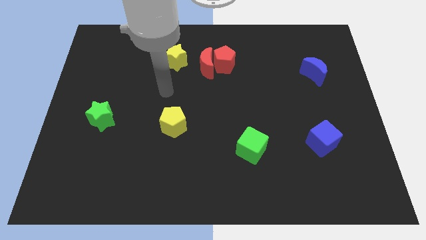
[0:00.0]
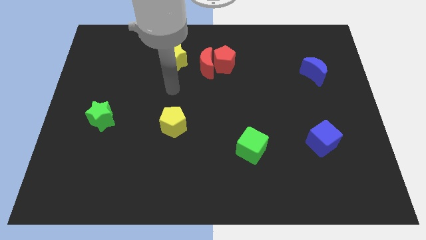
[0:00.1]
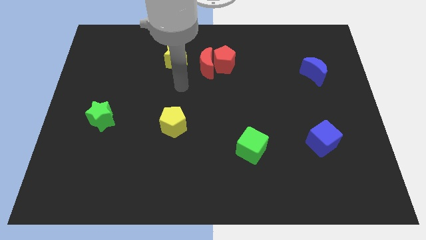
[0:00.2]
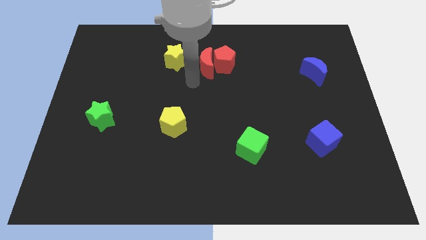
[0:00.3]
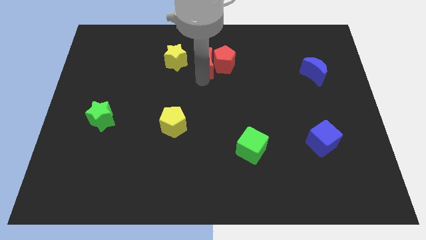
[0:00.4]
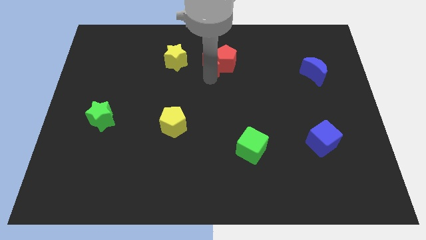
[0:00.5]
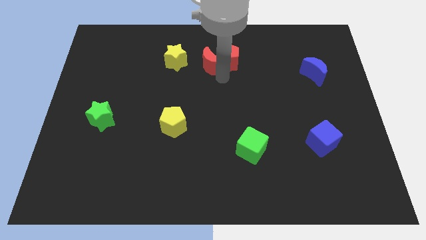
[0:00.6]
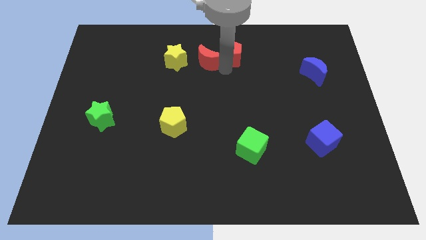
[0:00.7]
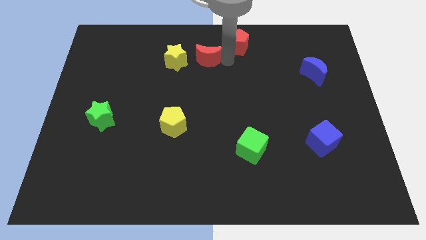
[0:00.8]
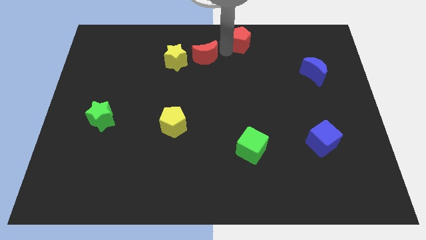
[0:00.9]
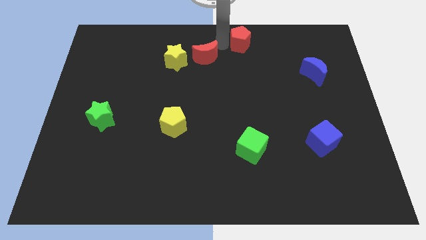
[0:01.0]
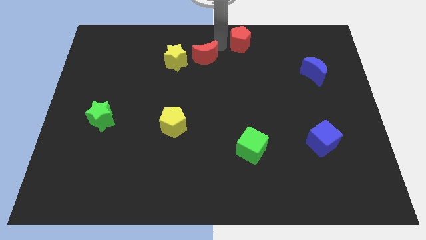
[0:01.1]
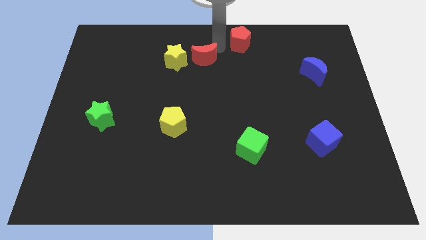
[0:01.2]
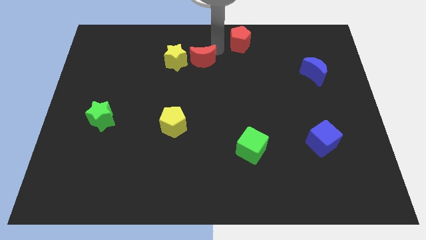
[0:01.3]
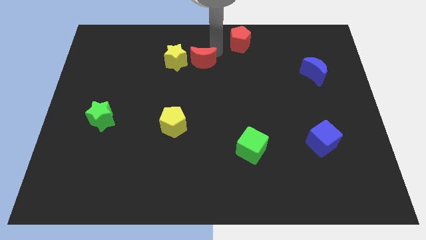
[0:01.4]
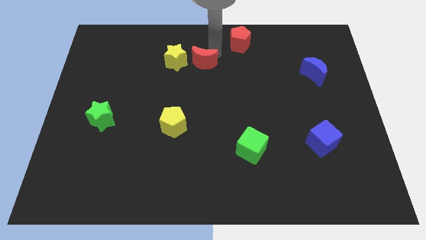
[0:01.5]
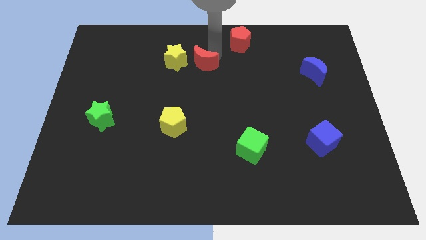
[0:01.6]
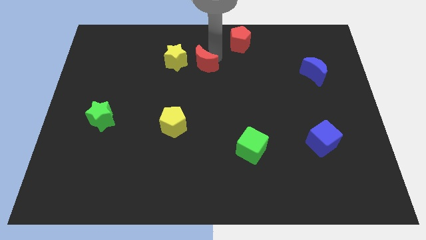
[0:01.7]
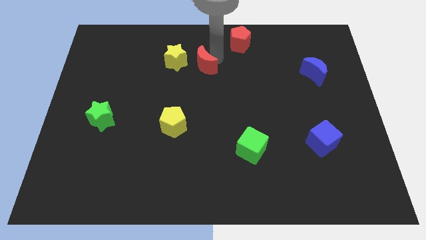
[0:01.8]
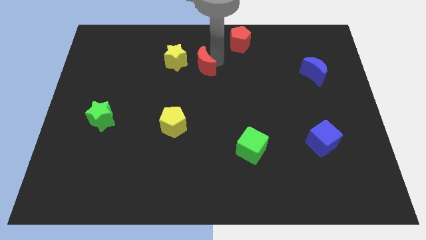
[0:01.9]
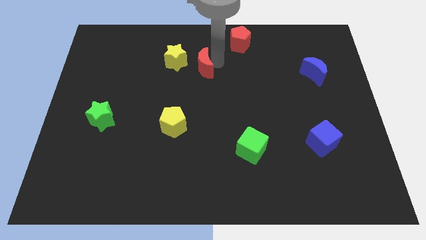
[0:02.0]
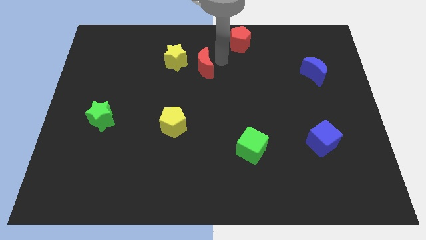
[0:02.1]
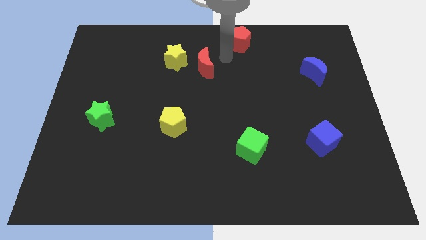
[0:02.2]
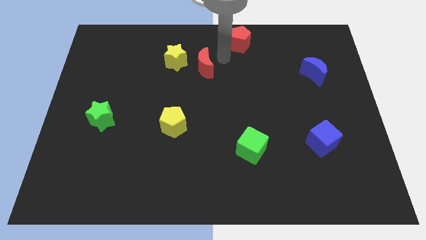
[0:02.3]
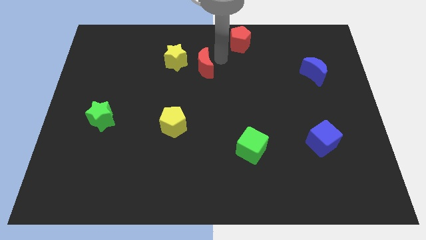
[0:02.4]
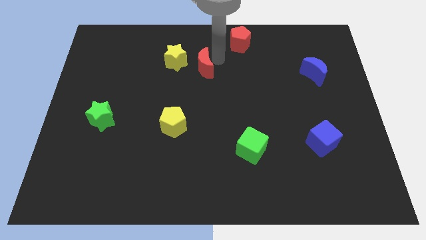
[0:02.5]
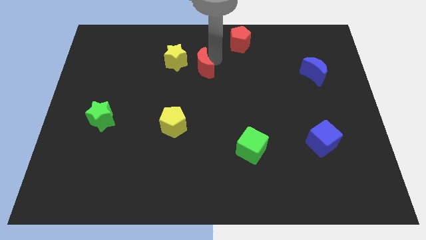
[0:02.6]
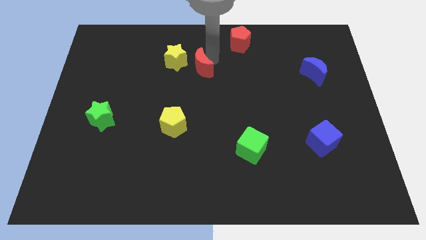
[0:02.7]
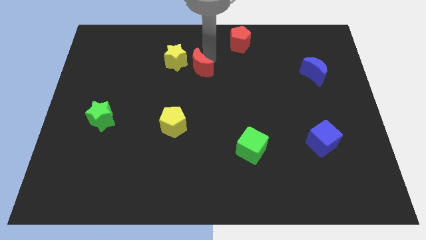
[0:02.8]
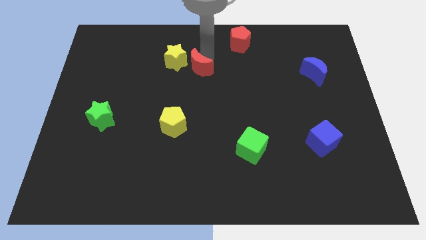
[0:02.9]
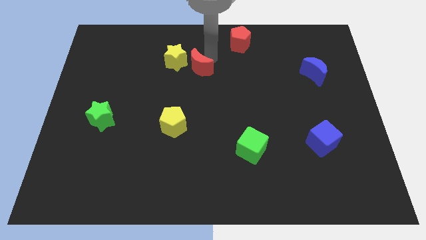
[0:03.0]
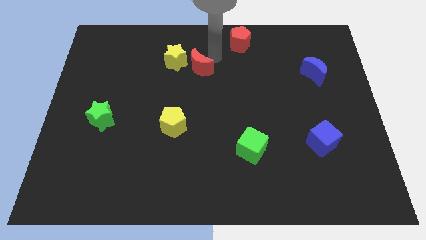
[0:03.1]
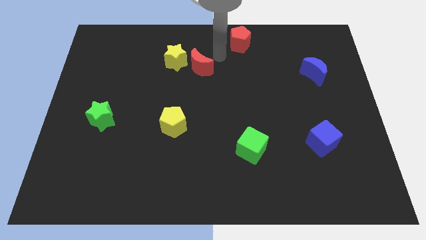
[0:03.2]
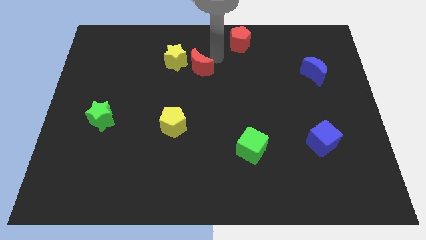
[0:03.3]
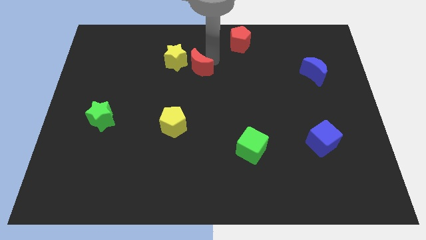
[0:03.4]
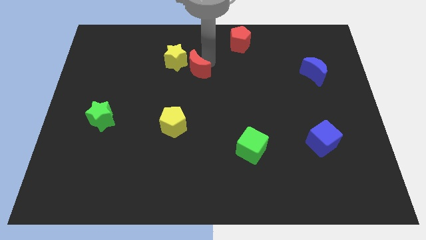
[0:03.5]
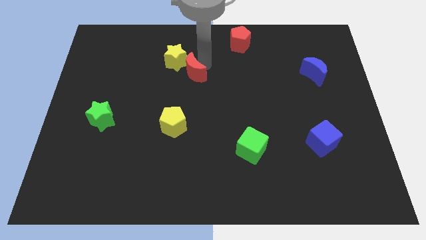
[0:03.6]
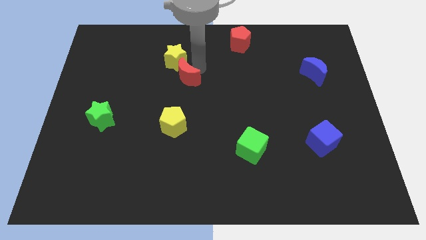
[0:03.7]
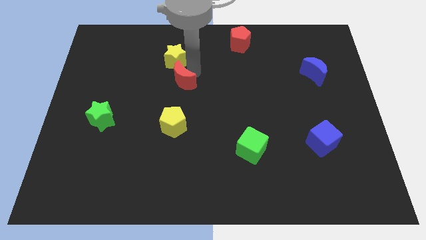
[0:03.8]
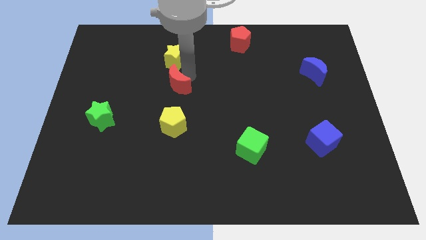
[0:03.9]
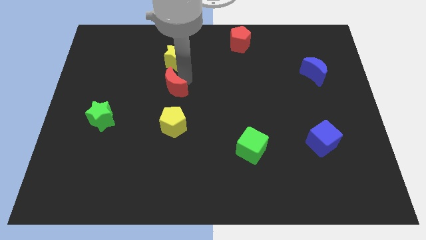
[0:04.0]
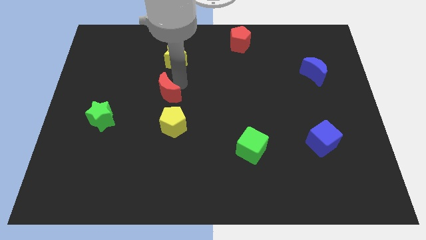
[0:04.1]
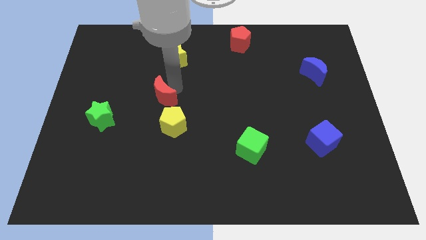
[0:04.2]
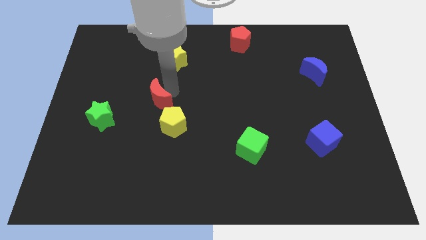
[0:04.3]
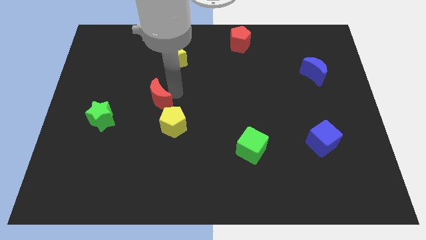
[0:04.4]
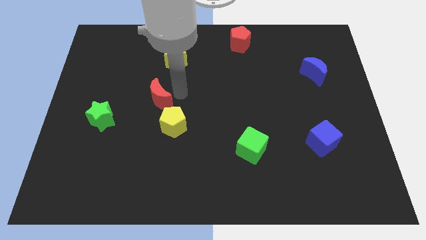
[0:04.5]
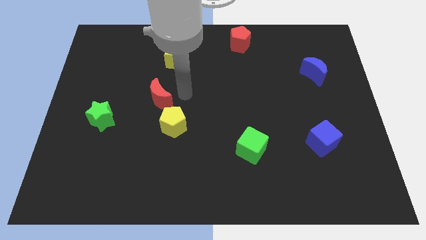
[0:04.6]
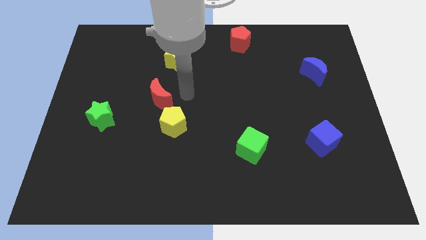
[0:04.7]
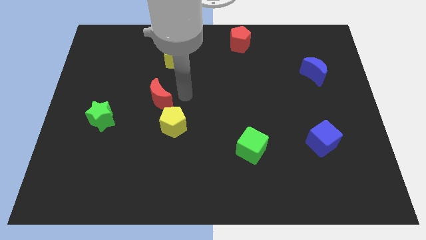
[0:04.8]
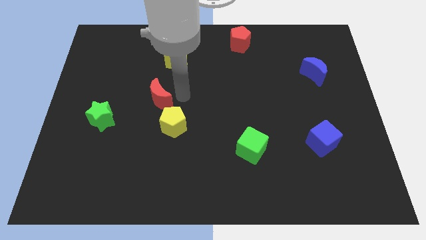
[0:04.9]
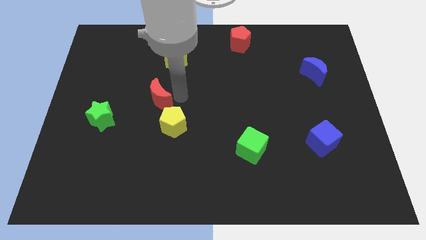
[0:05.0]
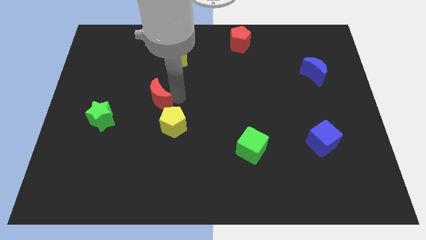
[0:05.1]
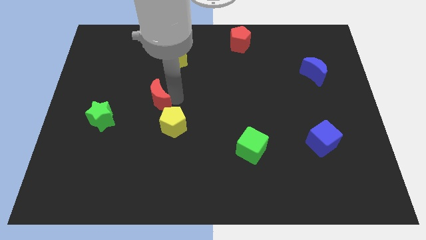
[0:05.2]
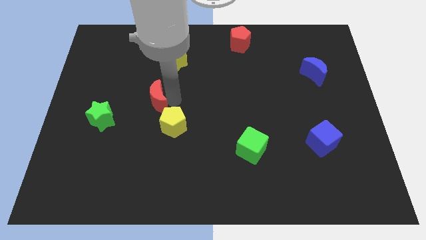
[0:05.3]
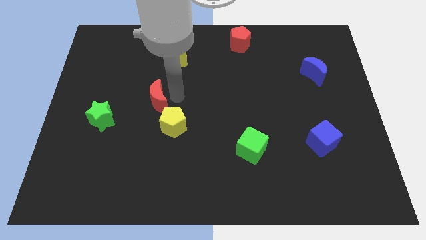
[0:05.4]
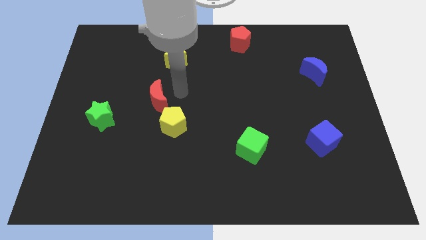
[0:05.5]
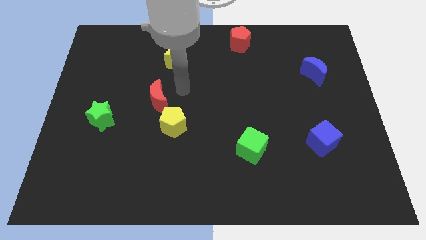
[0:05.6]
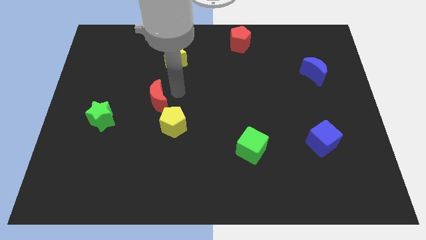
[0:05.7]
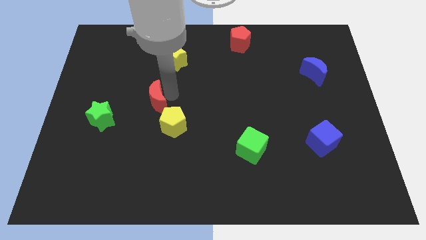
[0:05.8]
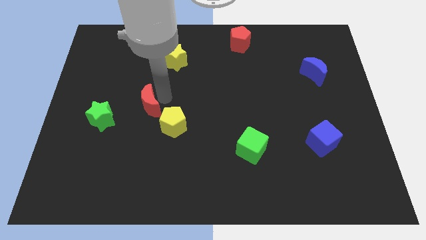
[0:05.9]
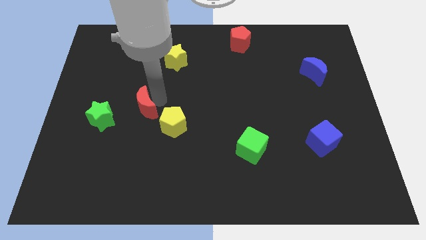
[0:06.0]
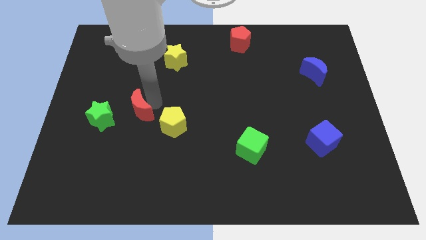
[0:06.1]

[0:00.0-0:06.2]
slide the red moon down and left

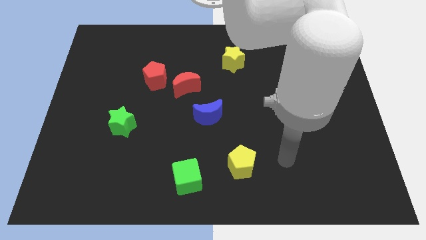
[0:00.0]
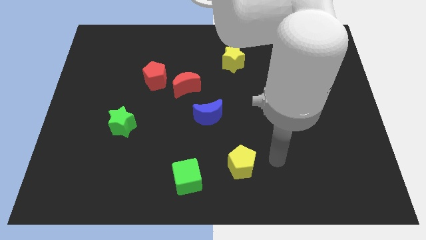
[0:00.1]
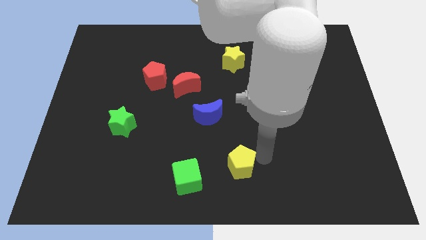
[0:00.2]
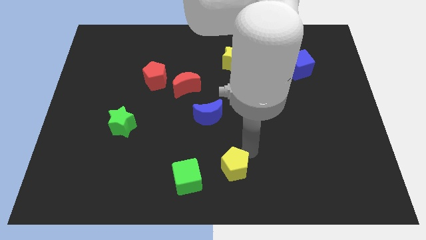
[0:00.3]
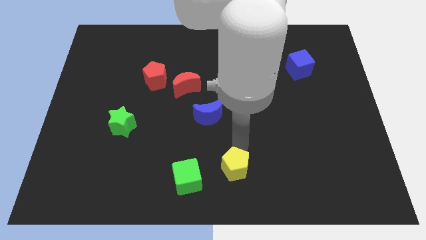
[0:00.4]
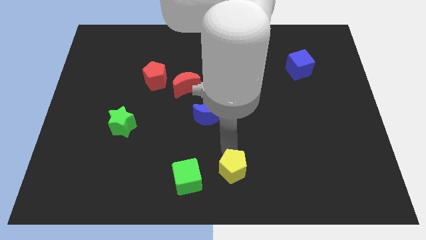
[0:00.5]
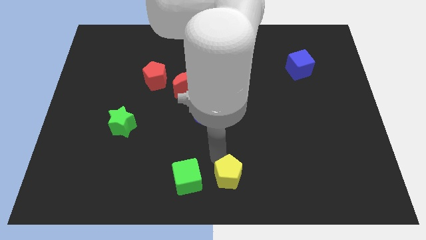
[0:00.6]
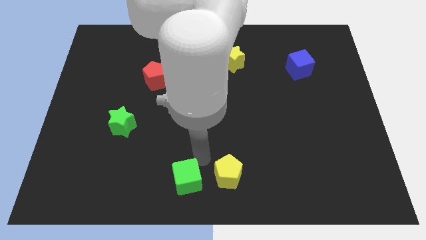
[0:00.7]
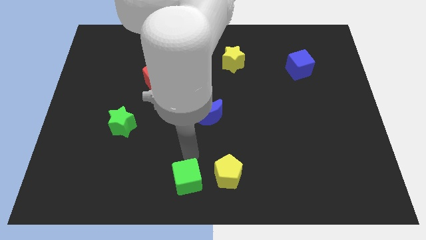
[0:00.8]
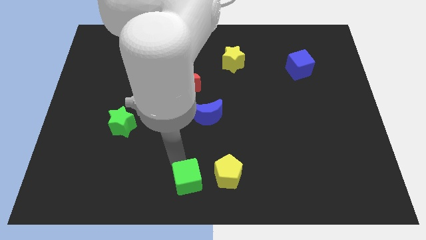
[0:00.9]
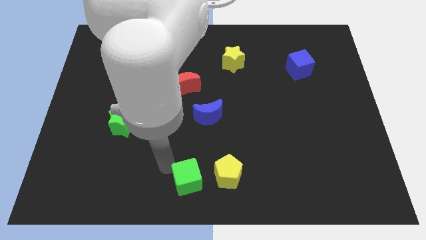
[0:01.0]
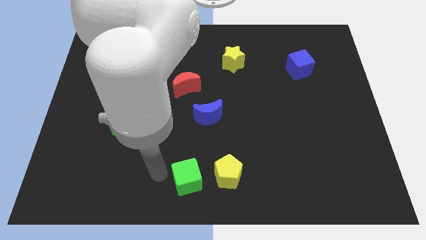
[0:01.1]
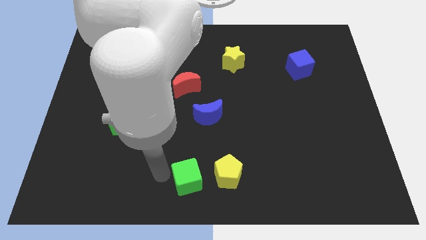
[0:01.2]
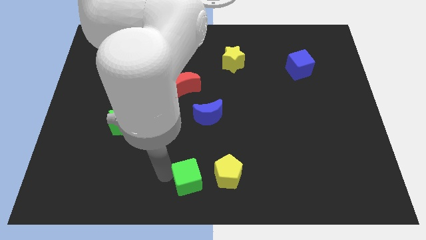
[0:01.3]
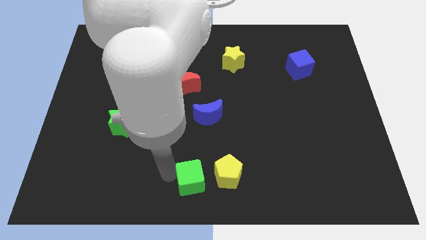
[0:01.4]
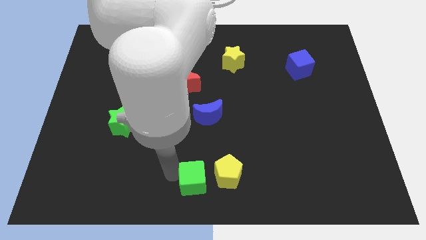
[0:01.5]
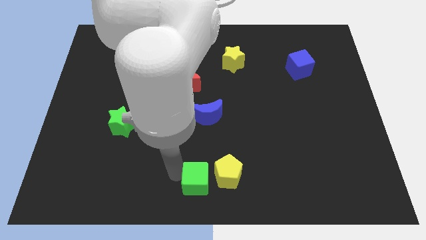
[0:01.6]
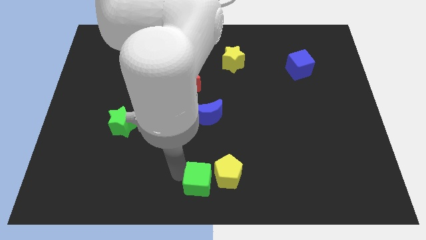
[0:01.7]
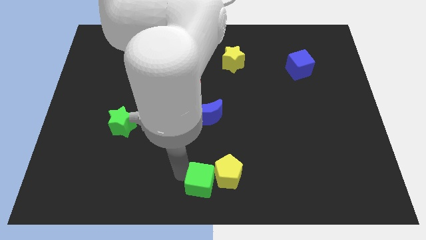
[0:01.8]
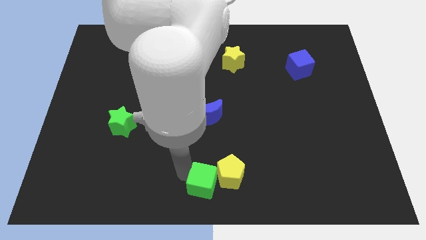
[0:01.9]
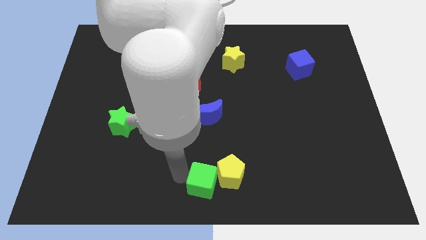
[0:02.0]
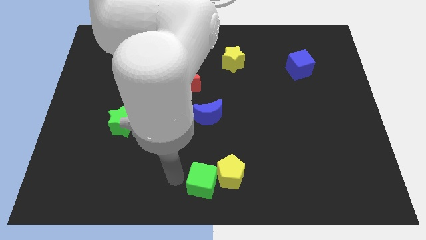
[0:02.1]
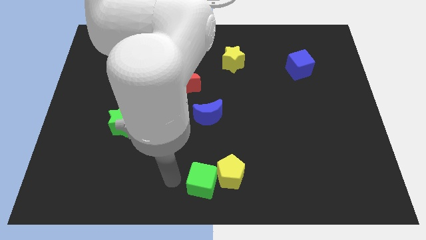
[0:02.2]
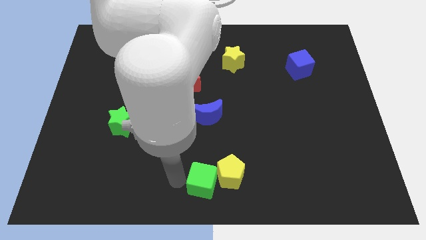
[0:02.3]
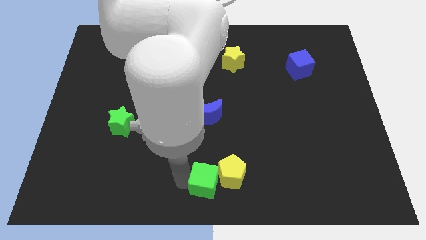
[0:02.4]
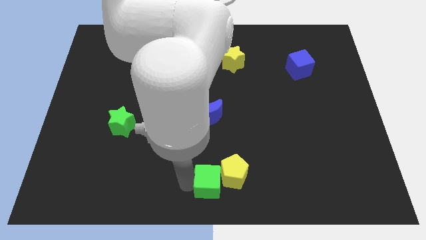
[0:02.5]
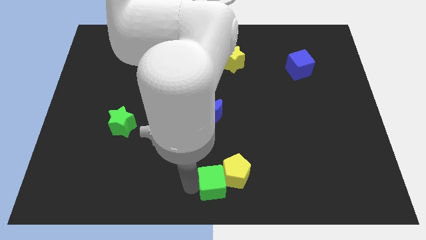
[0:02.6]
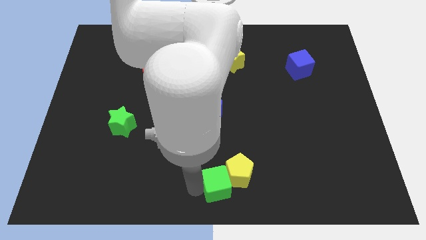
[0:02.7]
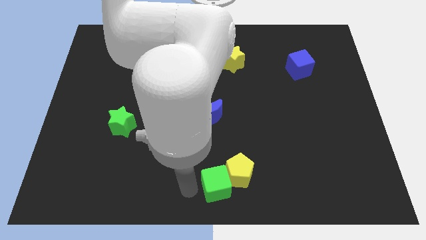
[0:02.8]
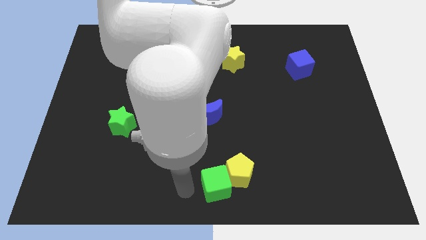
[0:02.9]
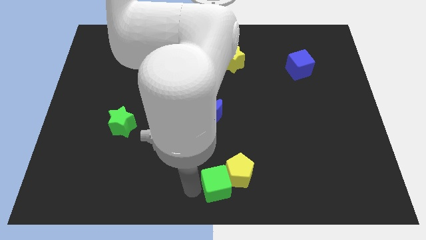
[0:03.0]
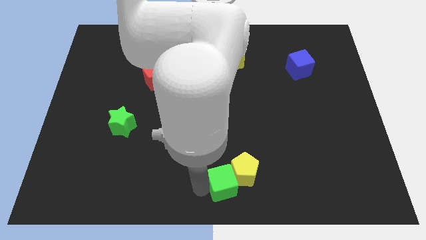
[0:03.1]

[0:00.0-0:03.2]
slightly move the green cube to the right
